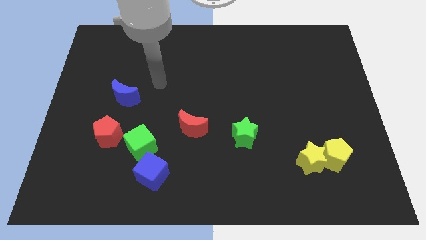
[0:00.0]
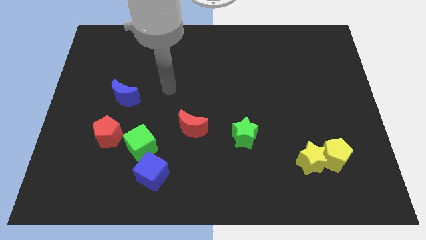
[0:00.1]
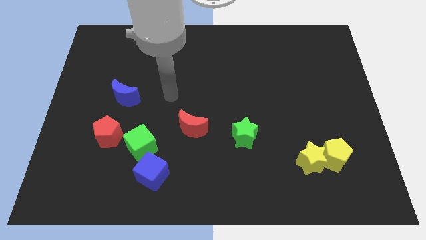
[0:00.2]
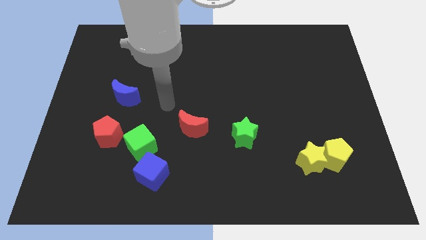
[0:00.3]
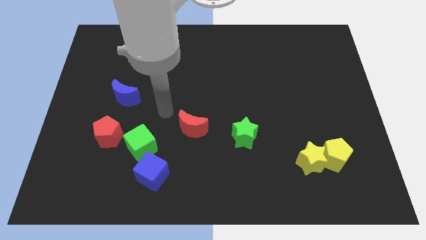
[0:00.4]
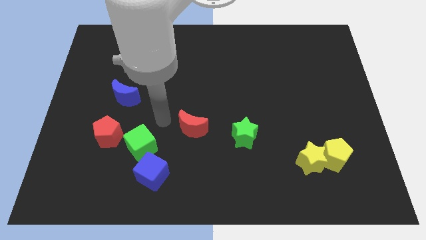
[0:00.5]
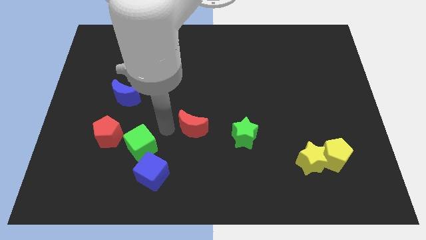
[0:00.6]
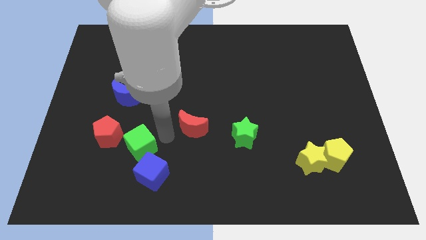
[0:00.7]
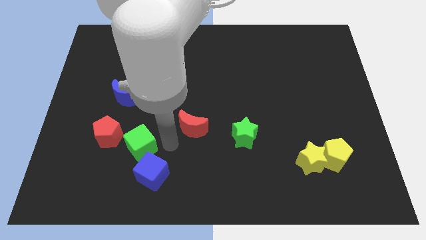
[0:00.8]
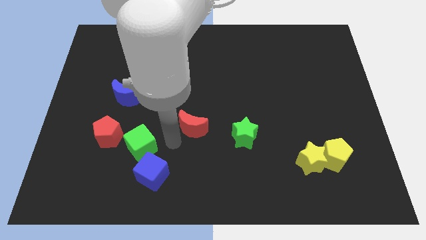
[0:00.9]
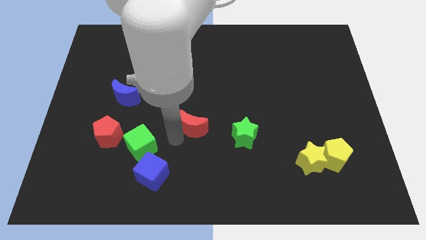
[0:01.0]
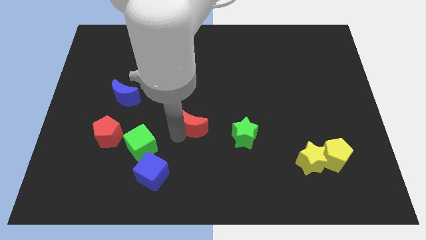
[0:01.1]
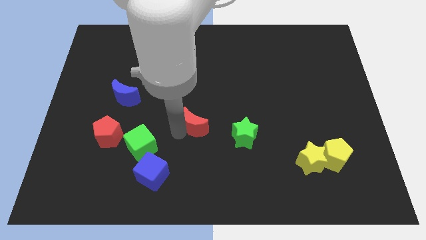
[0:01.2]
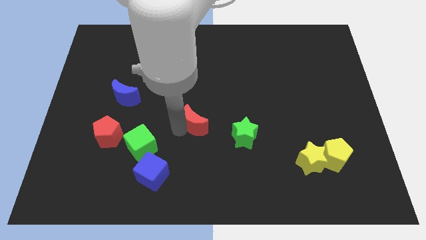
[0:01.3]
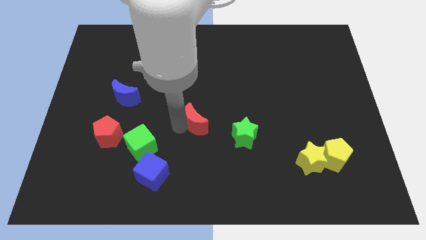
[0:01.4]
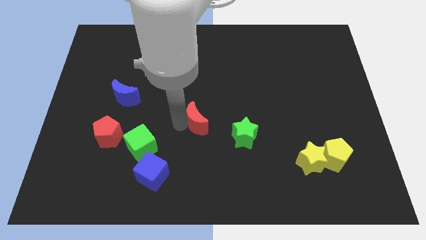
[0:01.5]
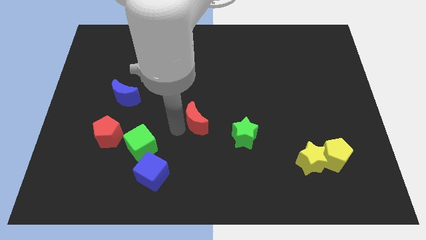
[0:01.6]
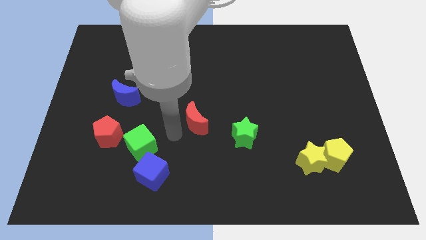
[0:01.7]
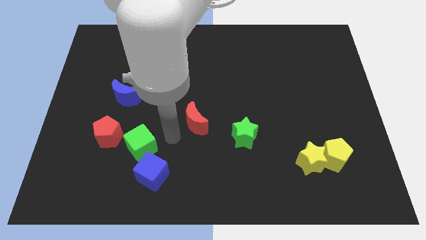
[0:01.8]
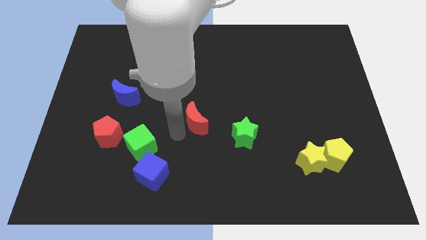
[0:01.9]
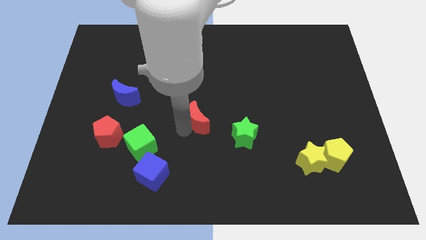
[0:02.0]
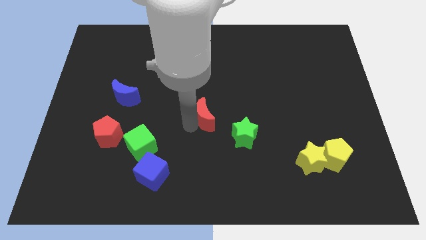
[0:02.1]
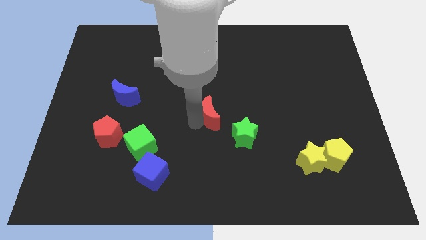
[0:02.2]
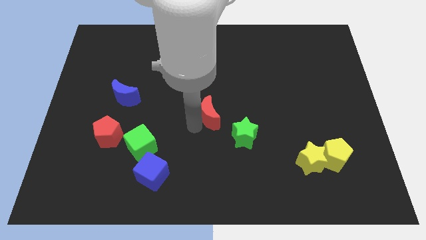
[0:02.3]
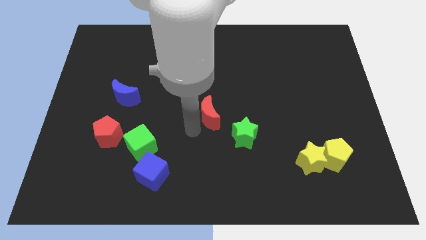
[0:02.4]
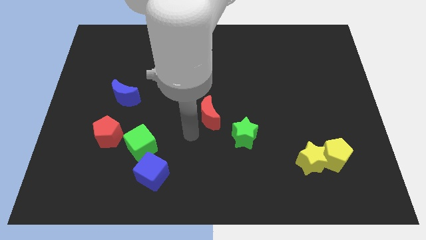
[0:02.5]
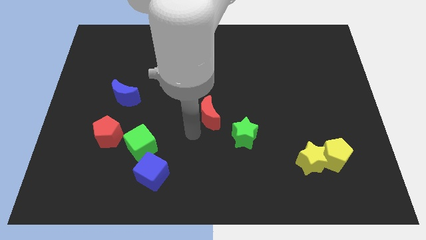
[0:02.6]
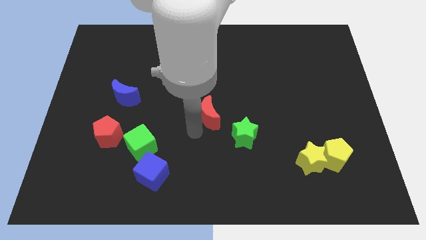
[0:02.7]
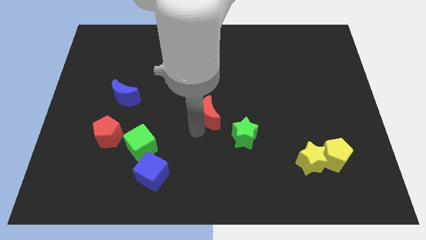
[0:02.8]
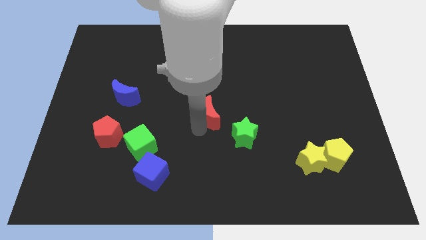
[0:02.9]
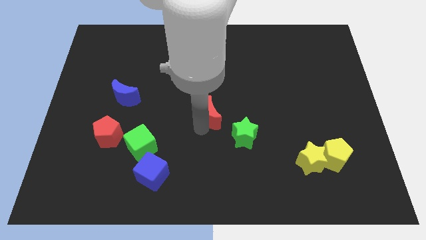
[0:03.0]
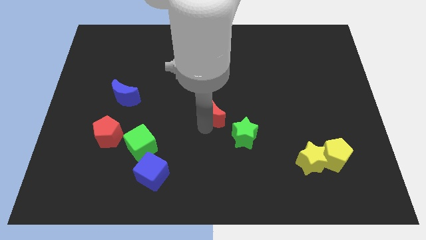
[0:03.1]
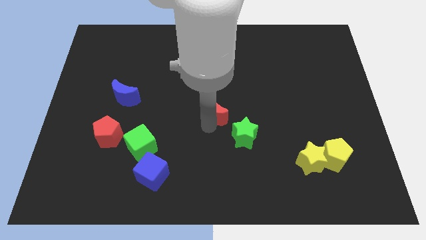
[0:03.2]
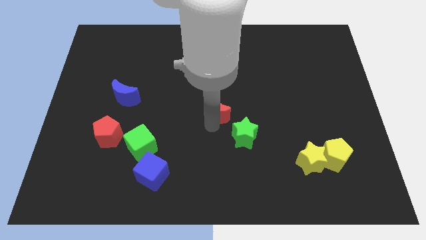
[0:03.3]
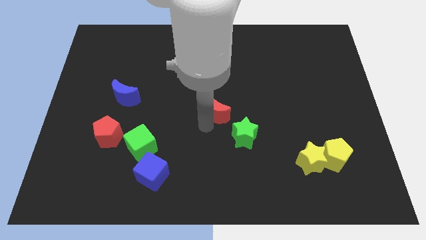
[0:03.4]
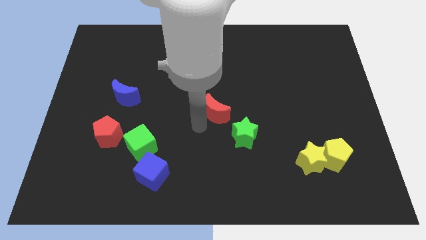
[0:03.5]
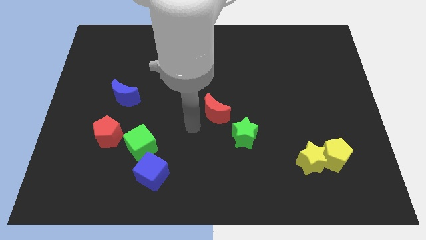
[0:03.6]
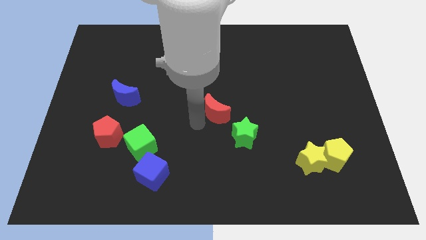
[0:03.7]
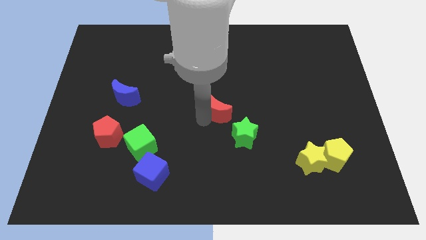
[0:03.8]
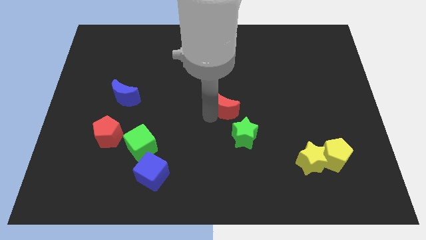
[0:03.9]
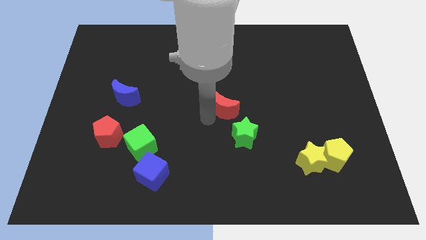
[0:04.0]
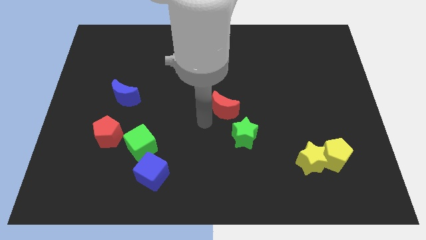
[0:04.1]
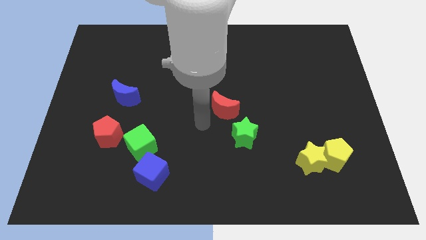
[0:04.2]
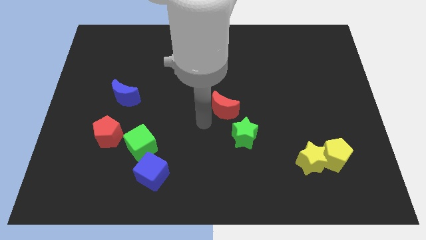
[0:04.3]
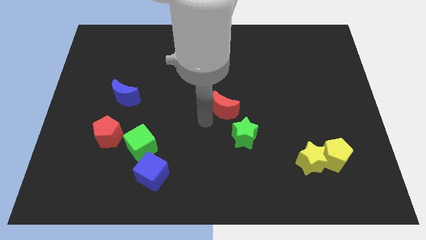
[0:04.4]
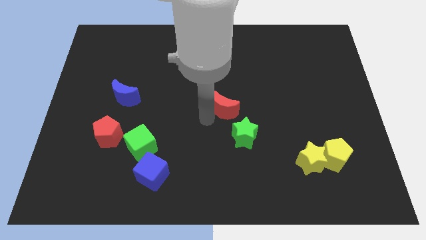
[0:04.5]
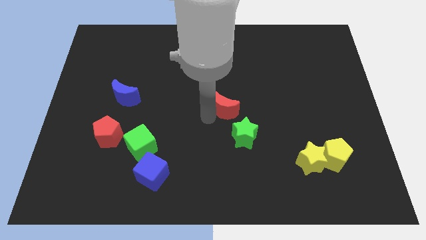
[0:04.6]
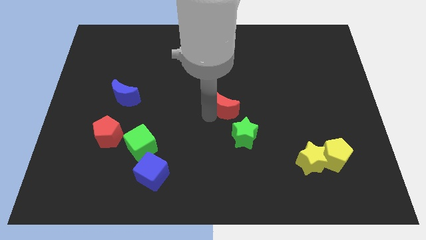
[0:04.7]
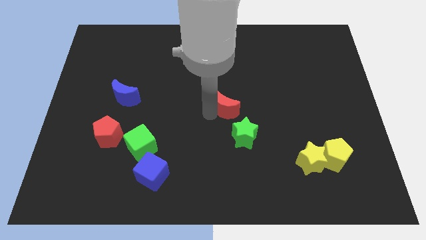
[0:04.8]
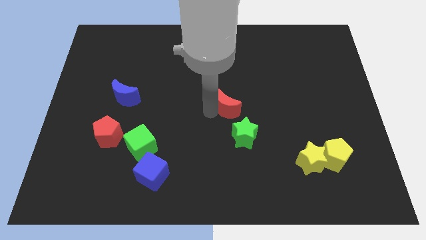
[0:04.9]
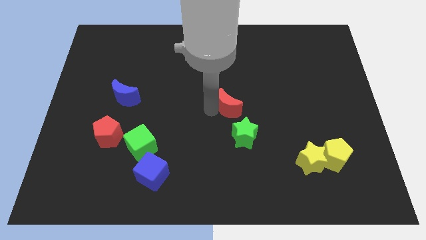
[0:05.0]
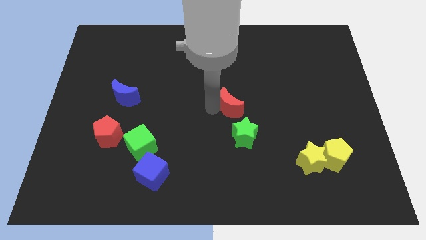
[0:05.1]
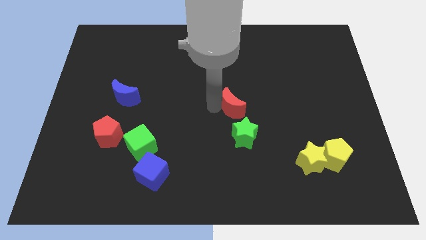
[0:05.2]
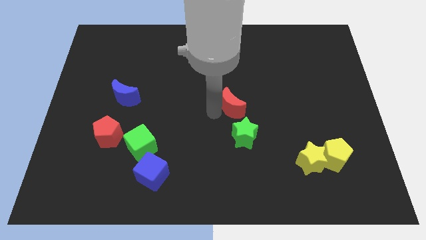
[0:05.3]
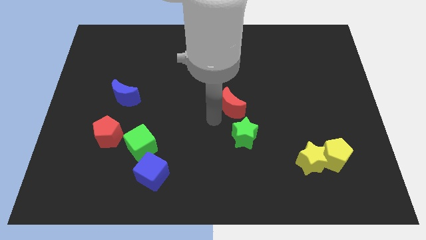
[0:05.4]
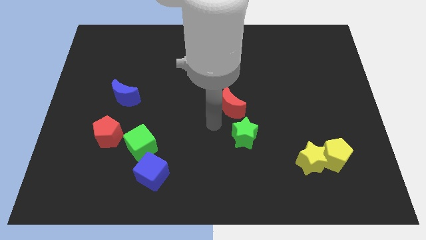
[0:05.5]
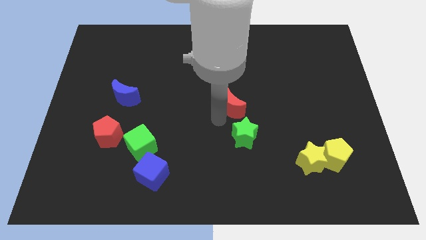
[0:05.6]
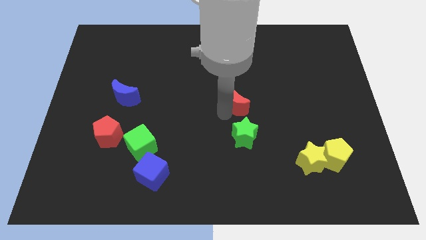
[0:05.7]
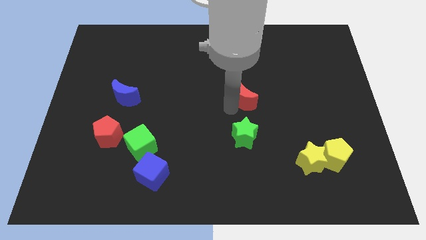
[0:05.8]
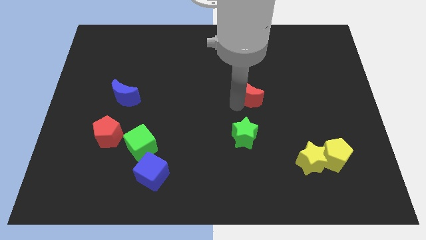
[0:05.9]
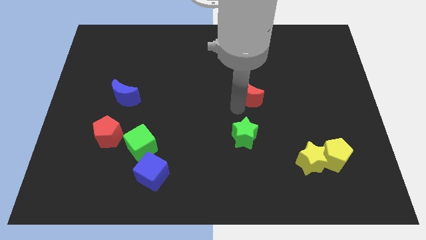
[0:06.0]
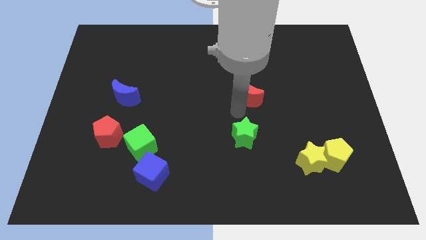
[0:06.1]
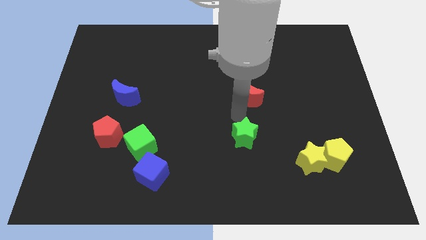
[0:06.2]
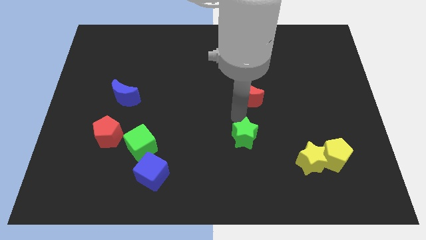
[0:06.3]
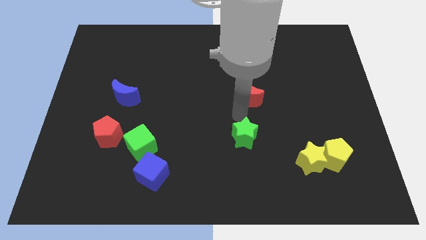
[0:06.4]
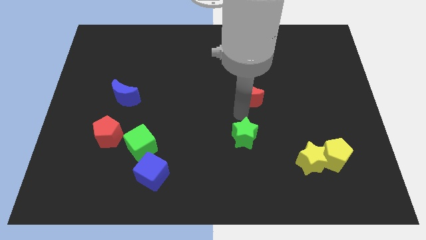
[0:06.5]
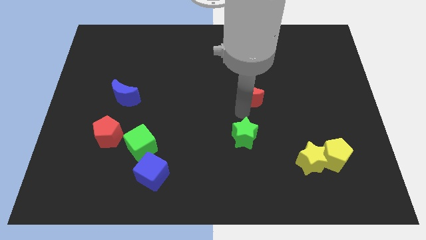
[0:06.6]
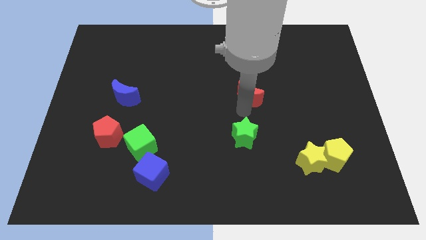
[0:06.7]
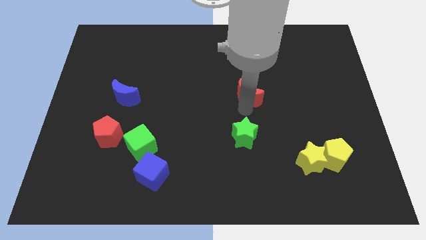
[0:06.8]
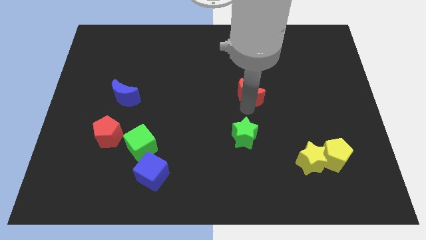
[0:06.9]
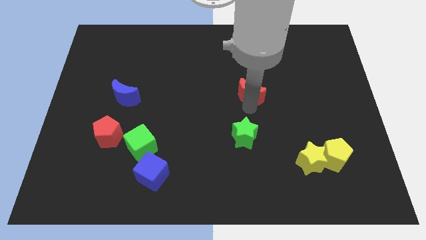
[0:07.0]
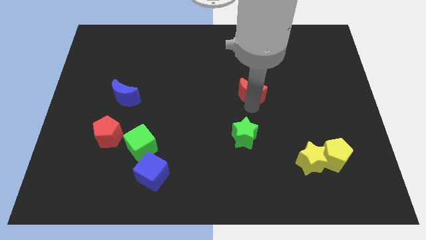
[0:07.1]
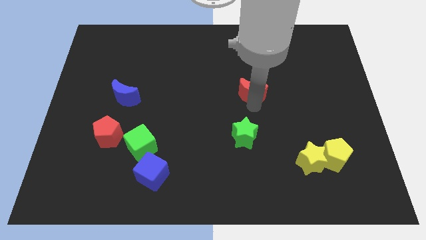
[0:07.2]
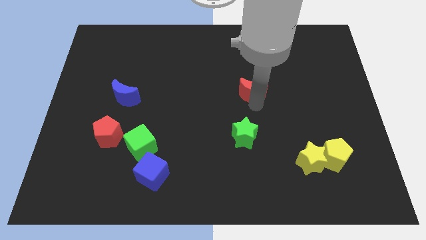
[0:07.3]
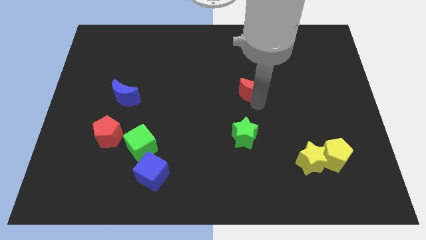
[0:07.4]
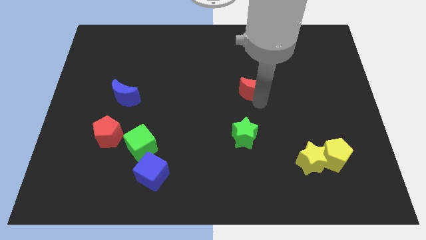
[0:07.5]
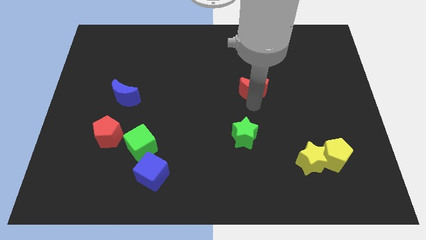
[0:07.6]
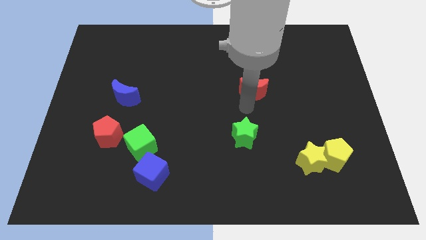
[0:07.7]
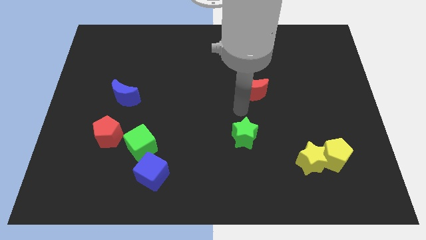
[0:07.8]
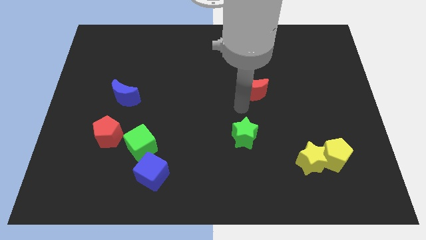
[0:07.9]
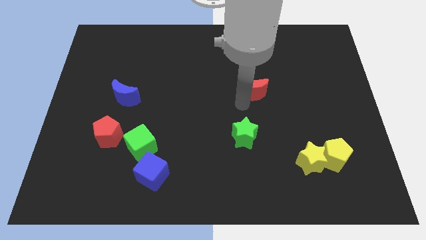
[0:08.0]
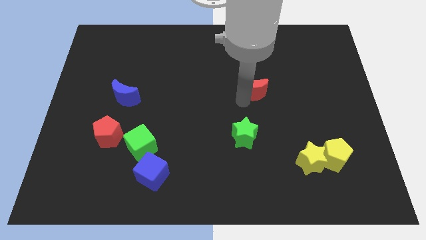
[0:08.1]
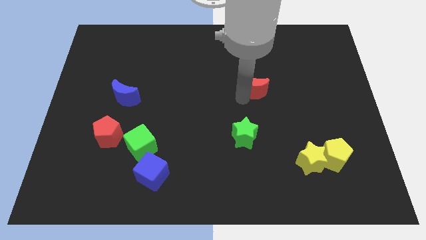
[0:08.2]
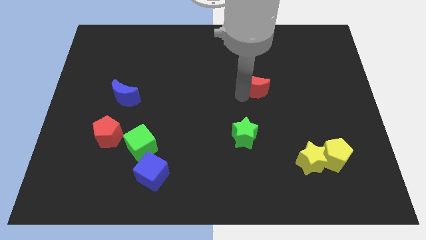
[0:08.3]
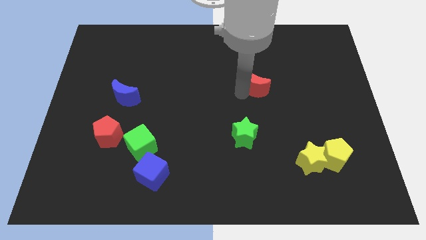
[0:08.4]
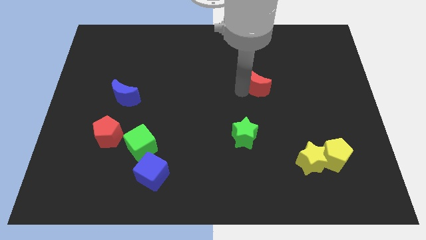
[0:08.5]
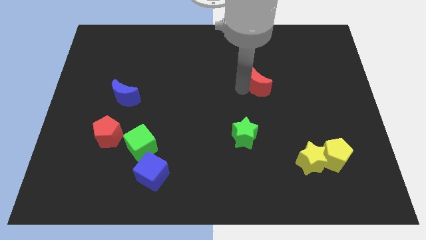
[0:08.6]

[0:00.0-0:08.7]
move the red moon upwards and then right
